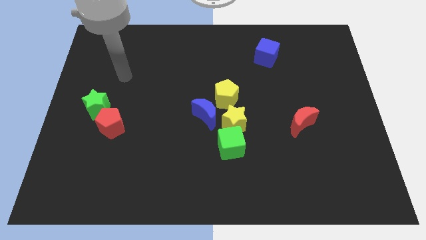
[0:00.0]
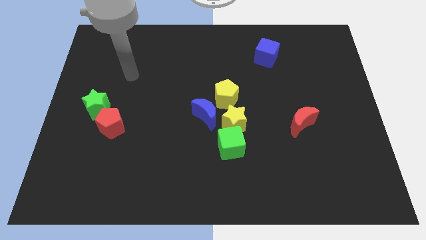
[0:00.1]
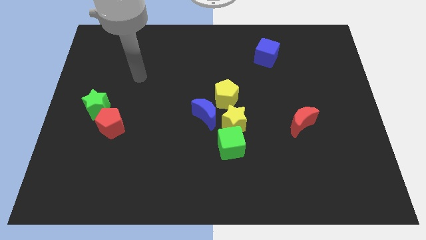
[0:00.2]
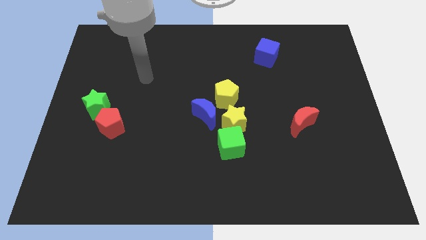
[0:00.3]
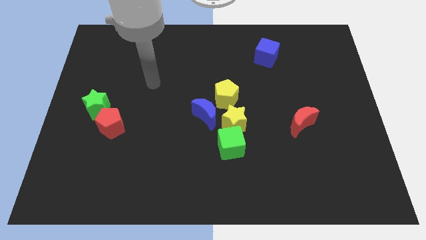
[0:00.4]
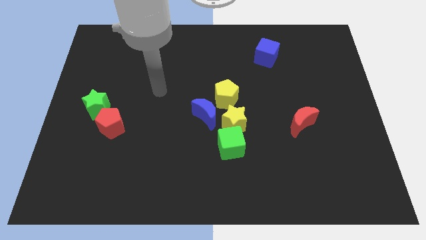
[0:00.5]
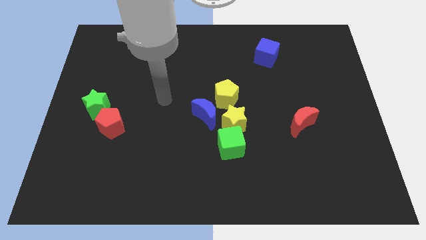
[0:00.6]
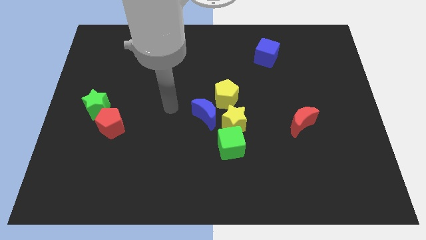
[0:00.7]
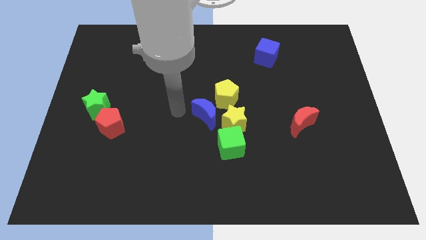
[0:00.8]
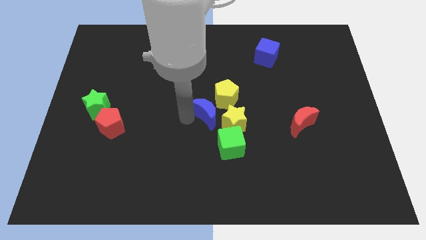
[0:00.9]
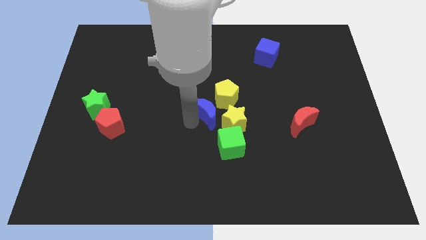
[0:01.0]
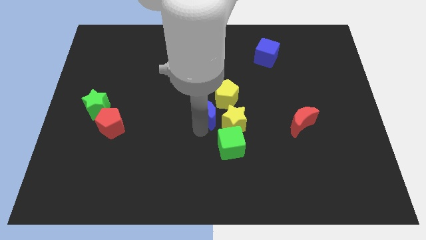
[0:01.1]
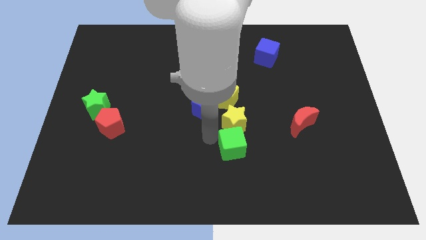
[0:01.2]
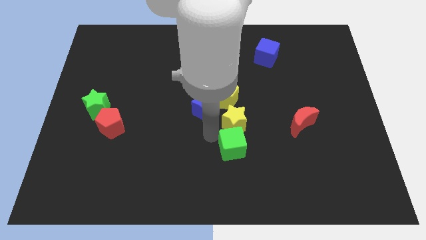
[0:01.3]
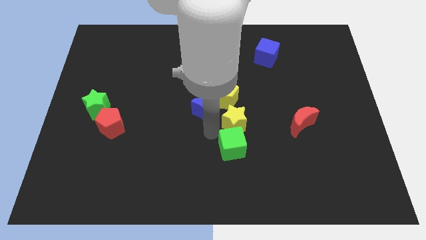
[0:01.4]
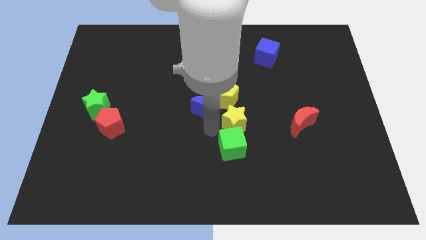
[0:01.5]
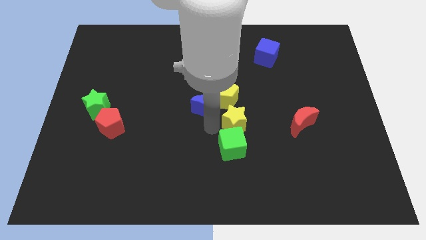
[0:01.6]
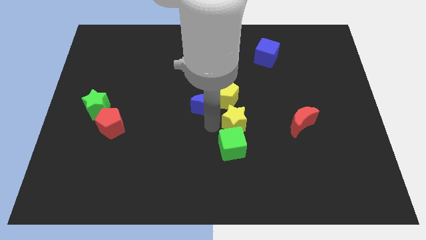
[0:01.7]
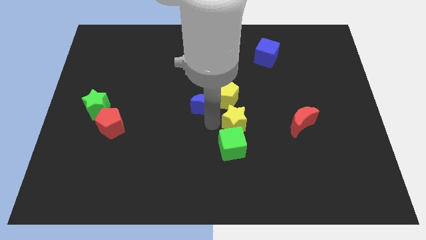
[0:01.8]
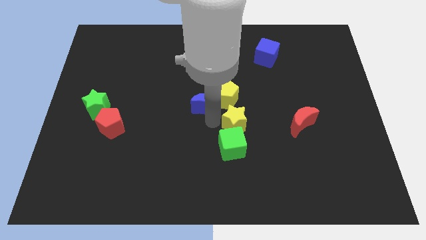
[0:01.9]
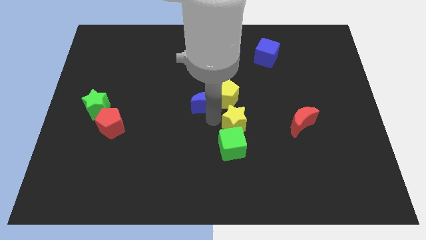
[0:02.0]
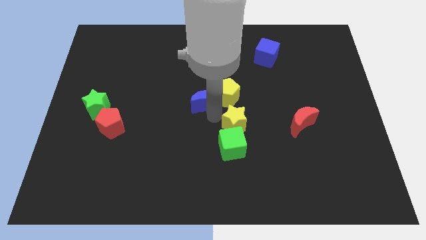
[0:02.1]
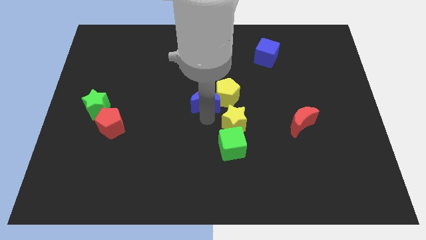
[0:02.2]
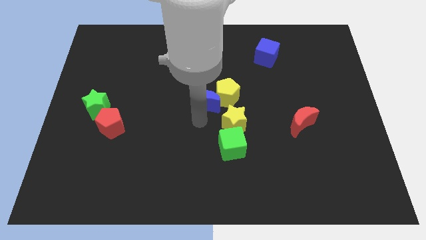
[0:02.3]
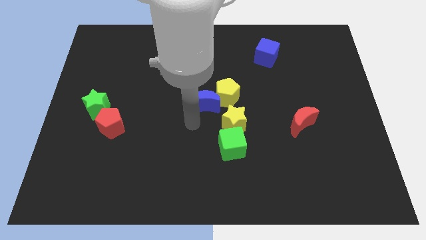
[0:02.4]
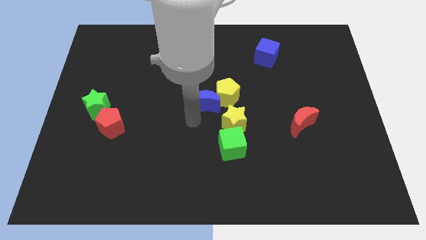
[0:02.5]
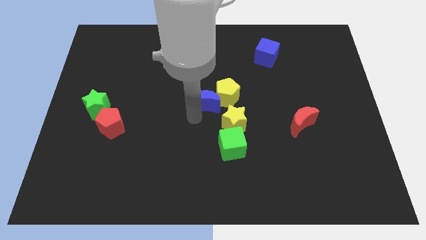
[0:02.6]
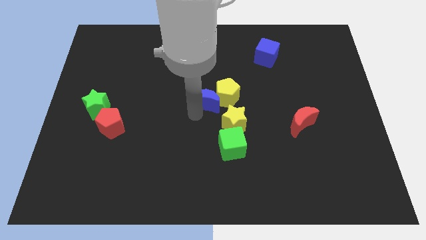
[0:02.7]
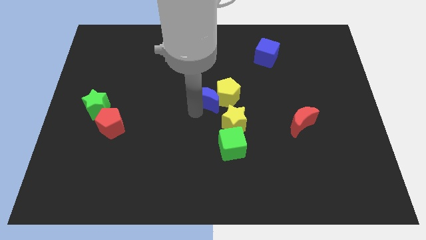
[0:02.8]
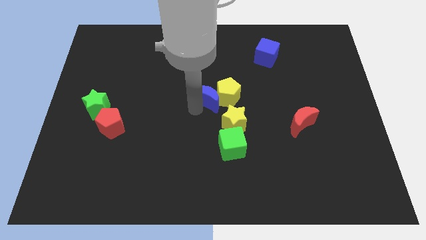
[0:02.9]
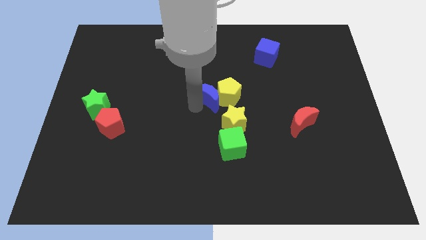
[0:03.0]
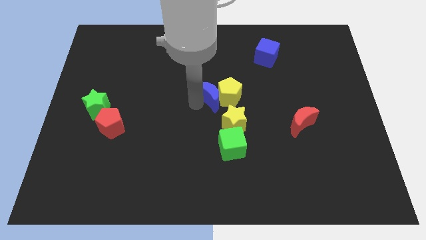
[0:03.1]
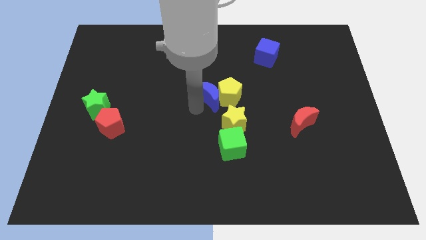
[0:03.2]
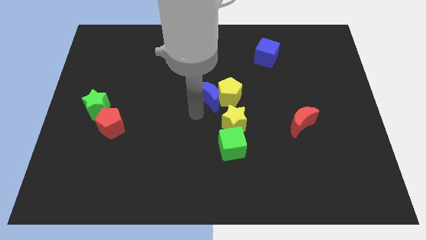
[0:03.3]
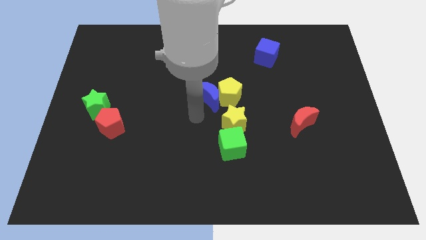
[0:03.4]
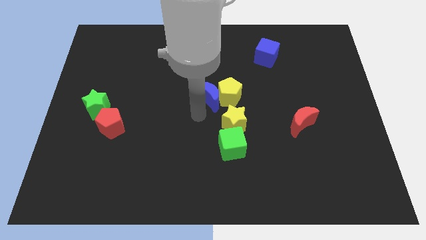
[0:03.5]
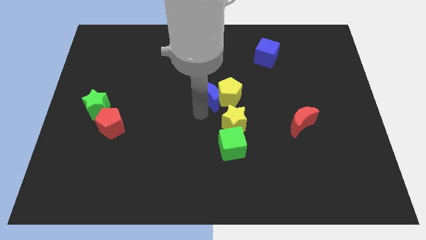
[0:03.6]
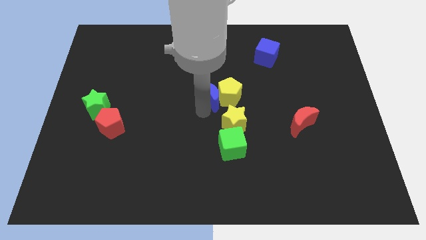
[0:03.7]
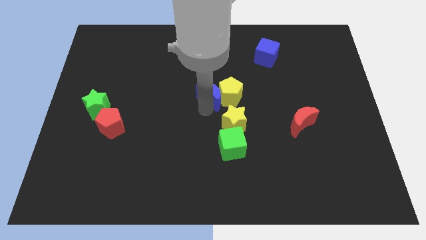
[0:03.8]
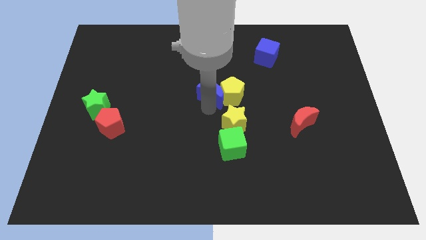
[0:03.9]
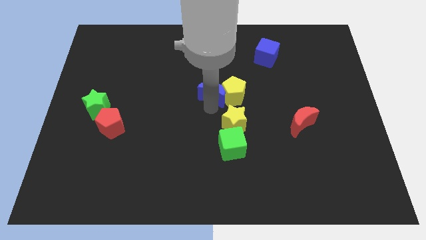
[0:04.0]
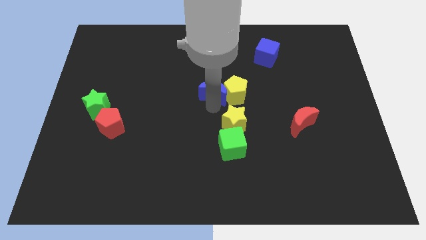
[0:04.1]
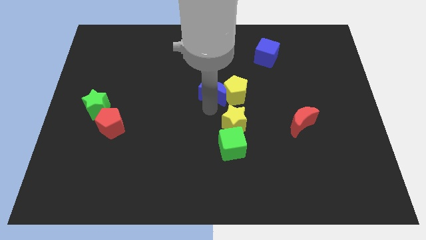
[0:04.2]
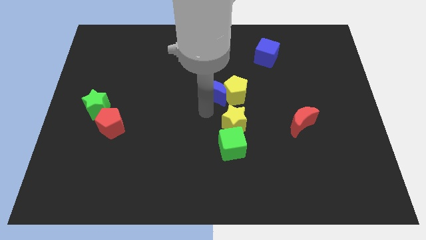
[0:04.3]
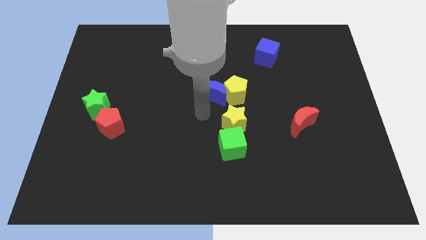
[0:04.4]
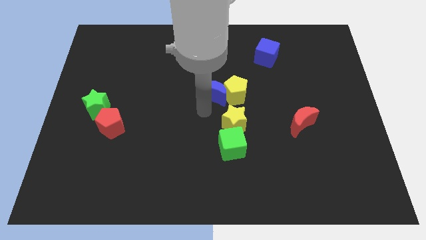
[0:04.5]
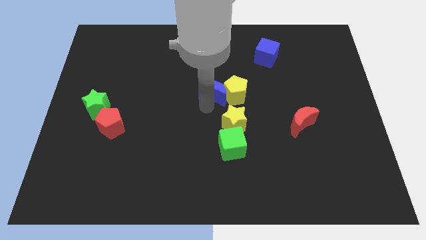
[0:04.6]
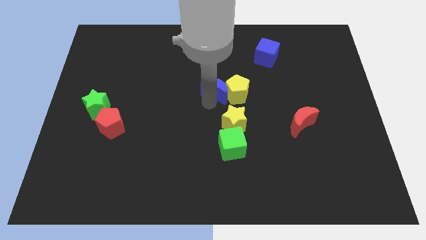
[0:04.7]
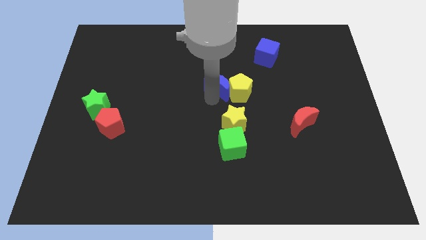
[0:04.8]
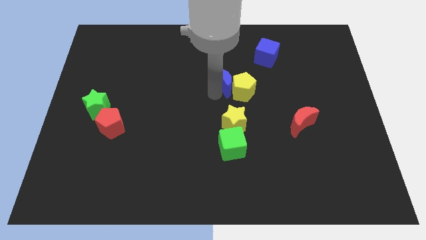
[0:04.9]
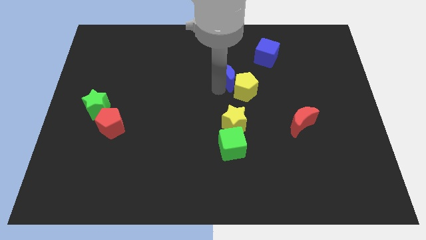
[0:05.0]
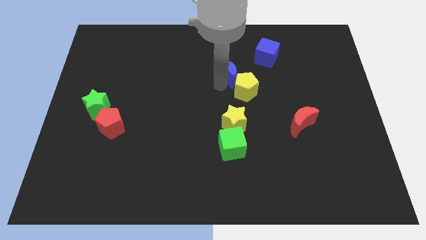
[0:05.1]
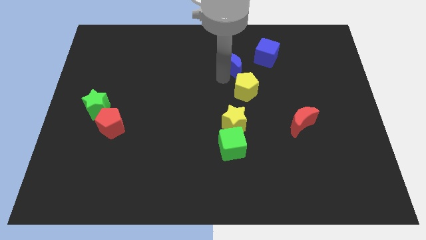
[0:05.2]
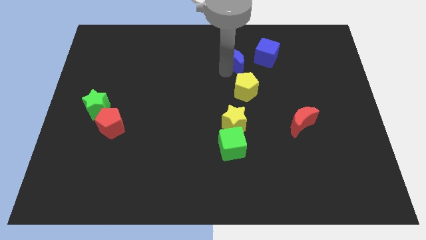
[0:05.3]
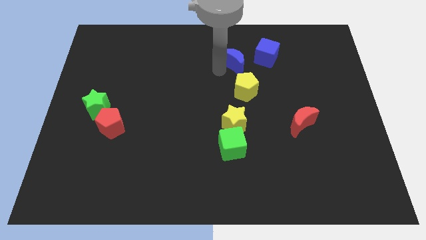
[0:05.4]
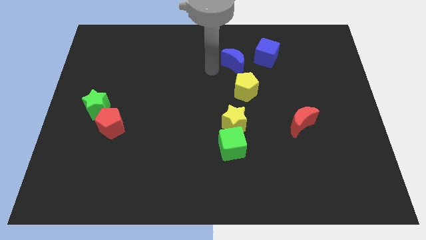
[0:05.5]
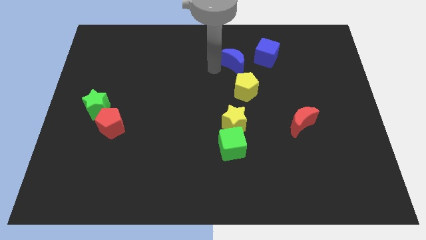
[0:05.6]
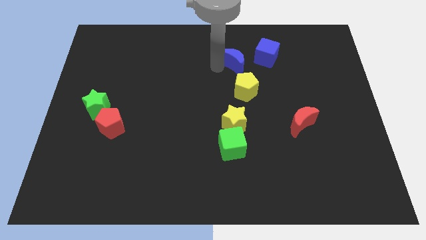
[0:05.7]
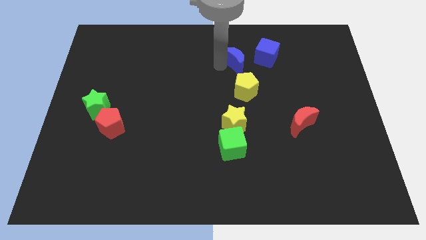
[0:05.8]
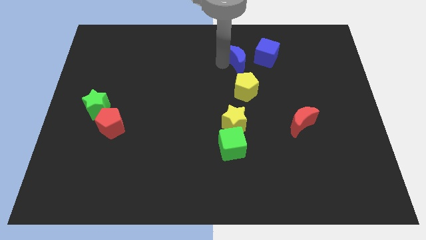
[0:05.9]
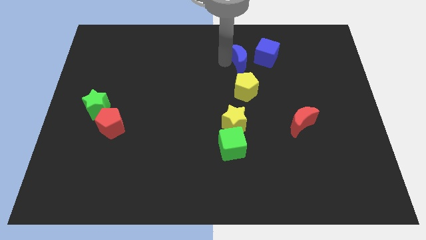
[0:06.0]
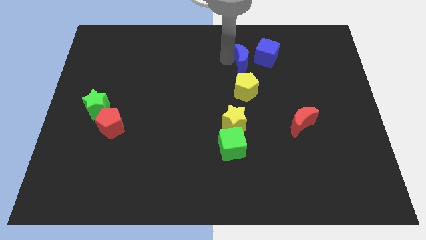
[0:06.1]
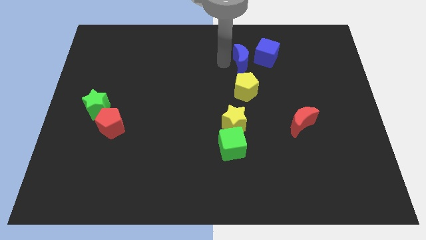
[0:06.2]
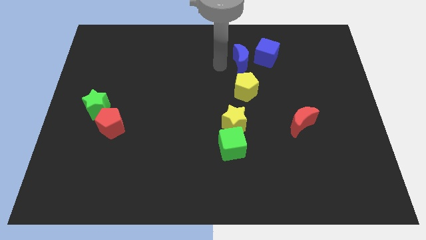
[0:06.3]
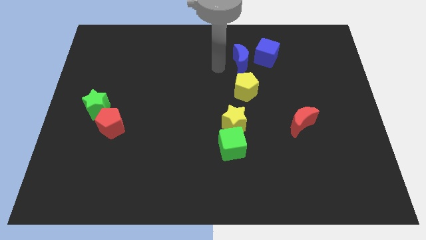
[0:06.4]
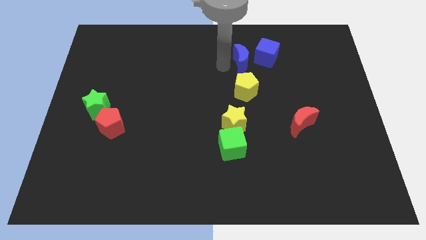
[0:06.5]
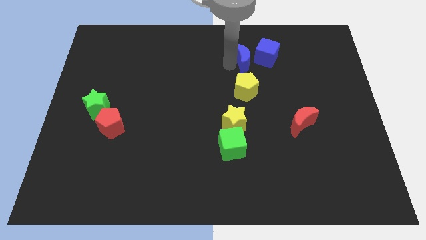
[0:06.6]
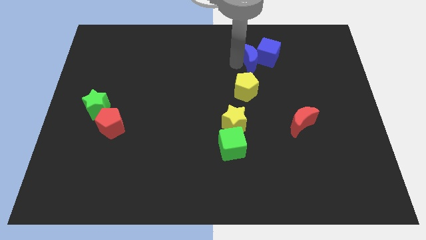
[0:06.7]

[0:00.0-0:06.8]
move the blue moon next to the blue cube
